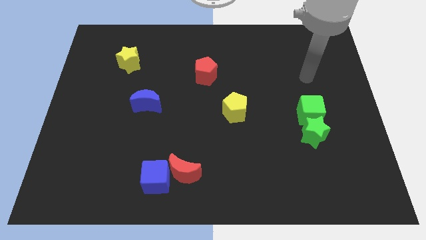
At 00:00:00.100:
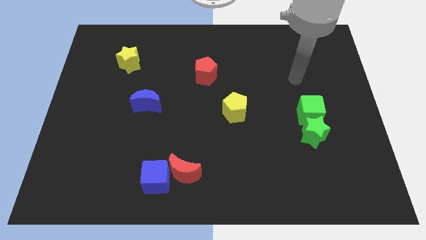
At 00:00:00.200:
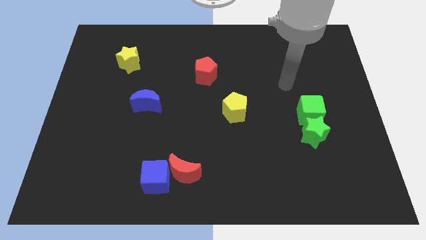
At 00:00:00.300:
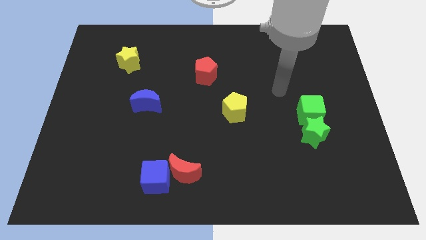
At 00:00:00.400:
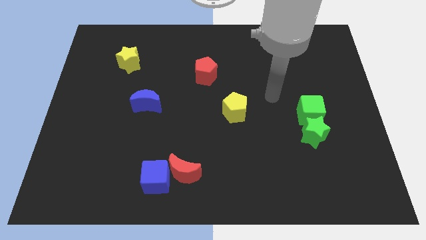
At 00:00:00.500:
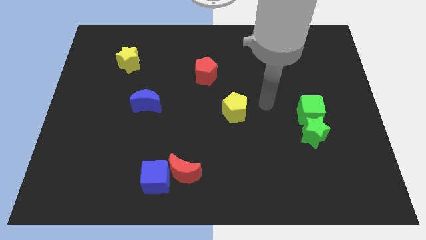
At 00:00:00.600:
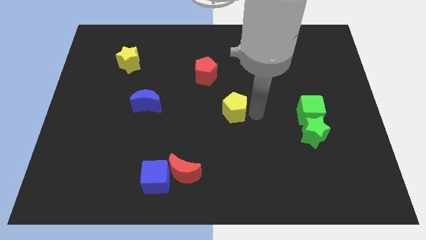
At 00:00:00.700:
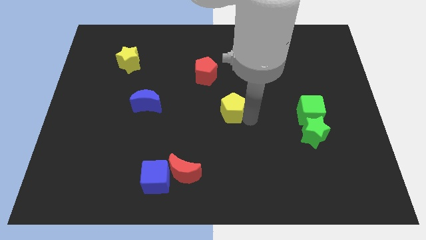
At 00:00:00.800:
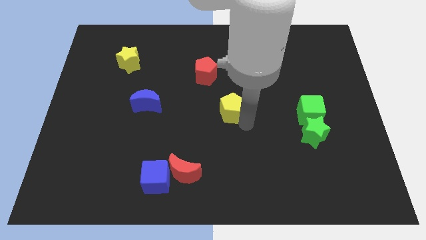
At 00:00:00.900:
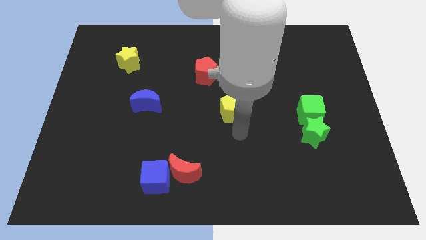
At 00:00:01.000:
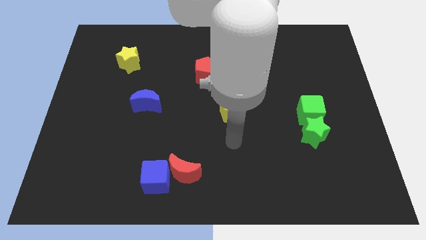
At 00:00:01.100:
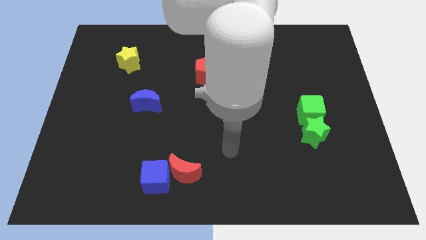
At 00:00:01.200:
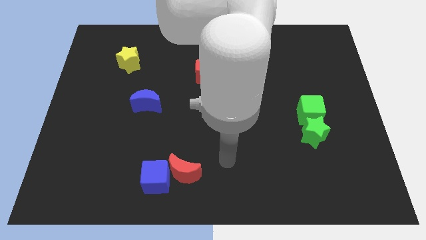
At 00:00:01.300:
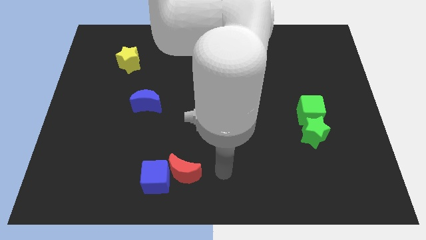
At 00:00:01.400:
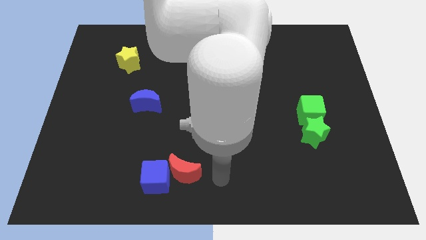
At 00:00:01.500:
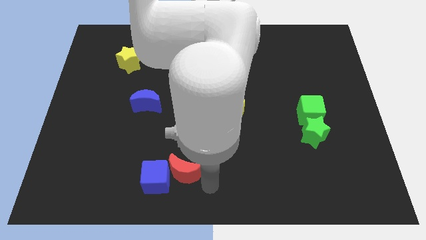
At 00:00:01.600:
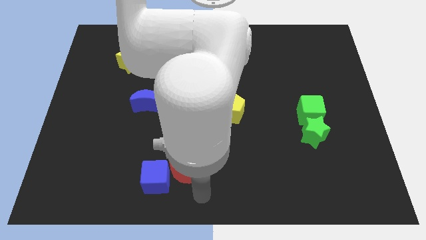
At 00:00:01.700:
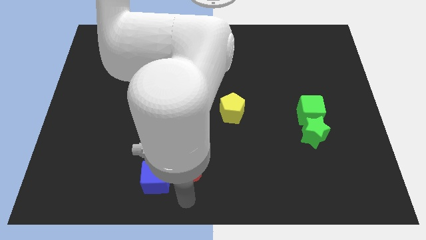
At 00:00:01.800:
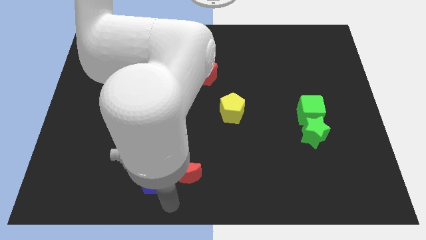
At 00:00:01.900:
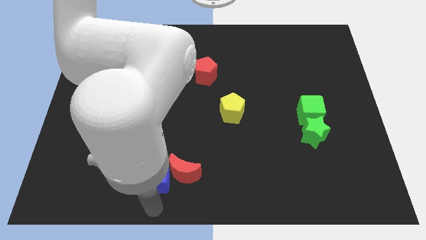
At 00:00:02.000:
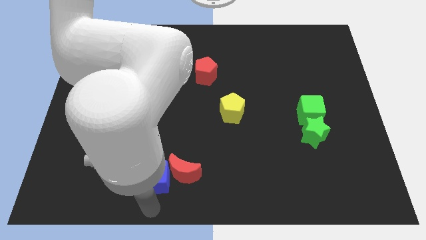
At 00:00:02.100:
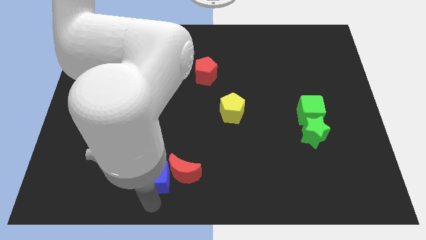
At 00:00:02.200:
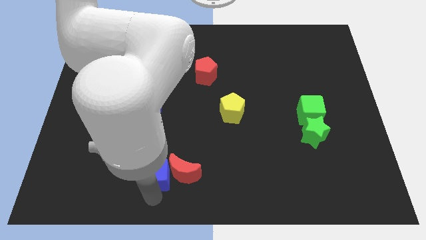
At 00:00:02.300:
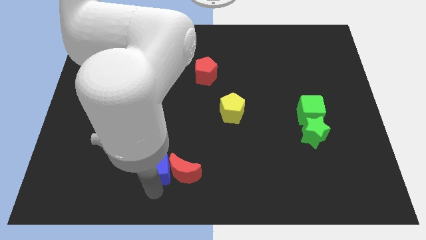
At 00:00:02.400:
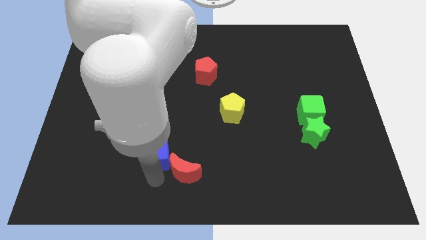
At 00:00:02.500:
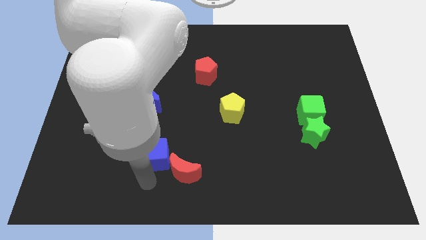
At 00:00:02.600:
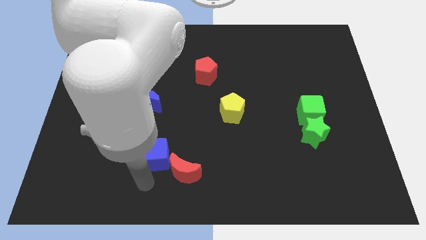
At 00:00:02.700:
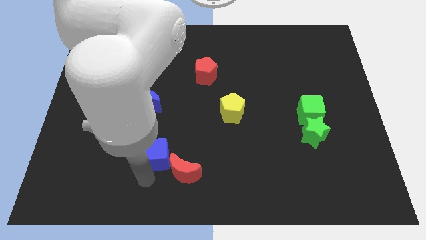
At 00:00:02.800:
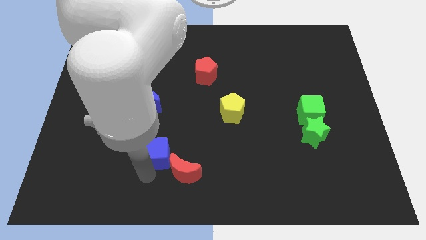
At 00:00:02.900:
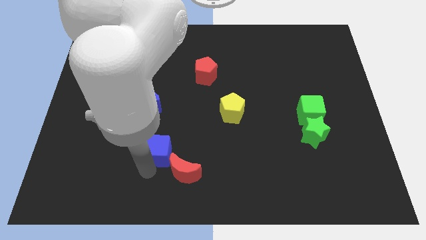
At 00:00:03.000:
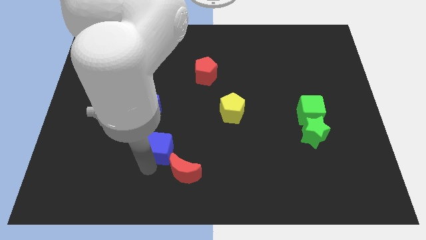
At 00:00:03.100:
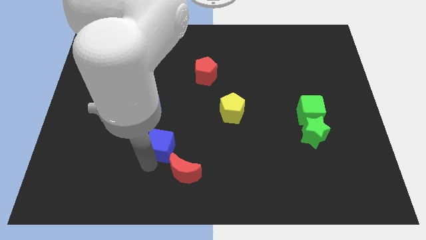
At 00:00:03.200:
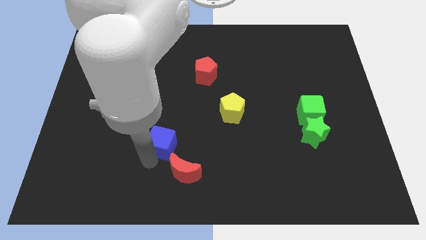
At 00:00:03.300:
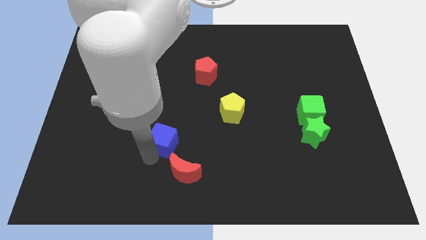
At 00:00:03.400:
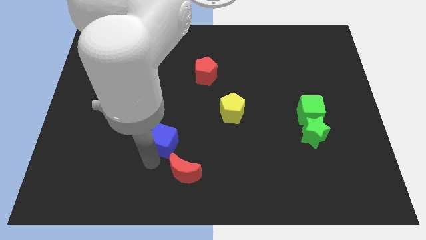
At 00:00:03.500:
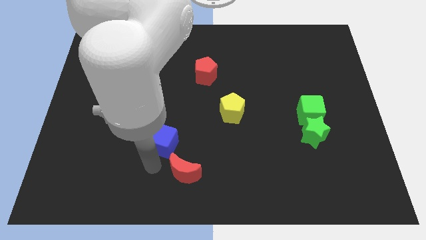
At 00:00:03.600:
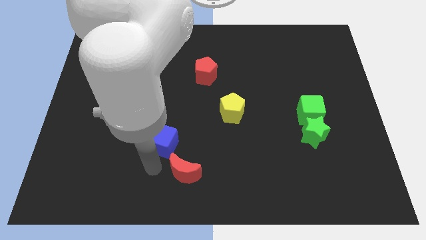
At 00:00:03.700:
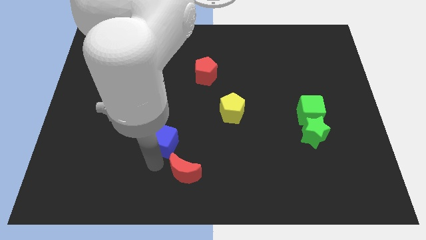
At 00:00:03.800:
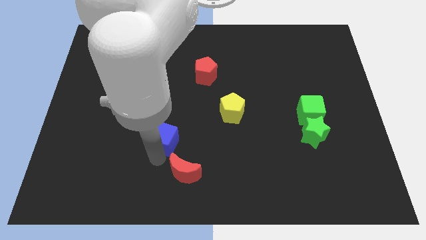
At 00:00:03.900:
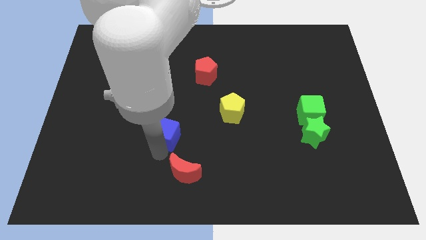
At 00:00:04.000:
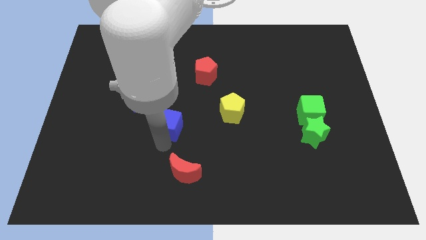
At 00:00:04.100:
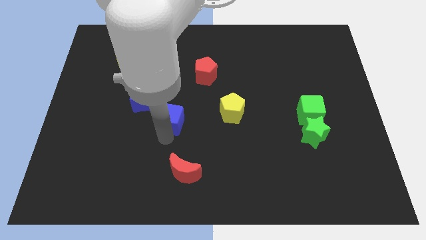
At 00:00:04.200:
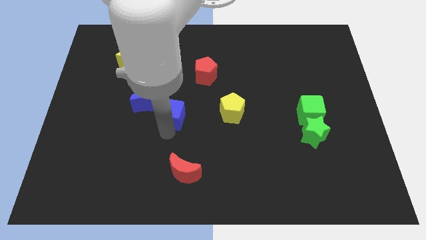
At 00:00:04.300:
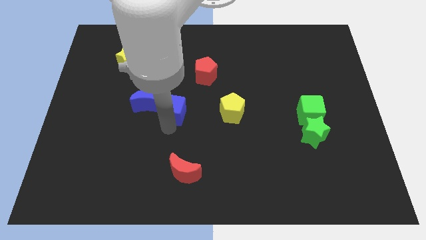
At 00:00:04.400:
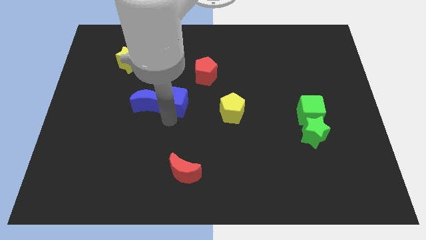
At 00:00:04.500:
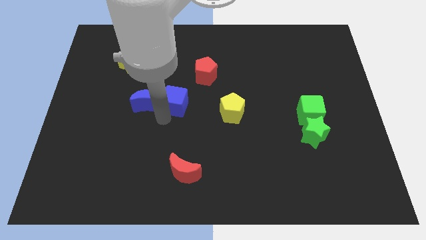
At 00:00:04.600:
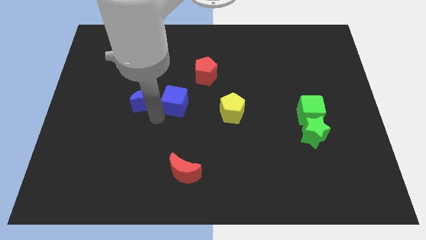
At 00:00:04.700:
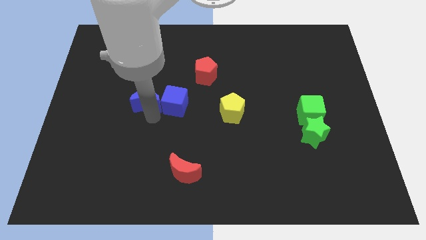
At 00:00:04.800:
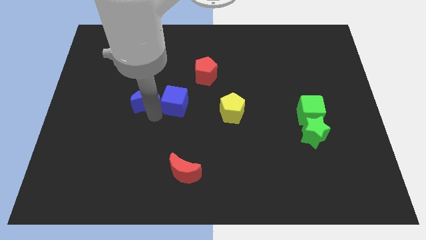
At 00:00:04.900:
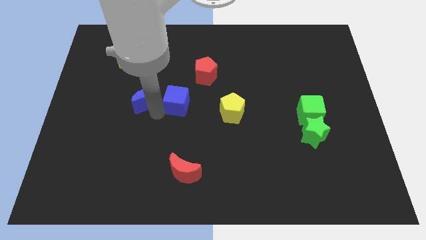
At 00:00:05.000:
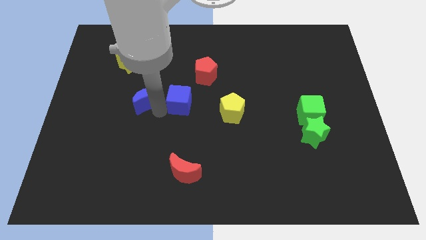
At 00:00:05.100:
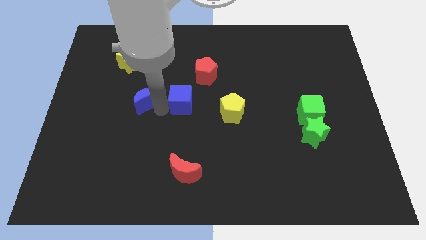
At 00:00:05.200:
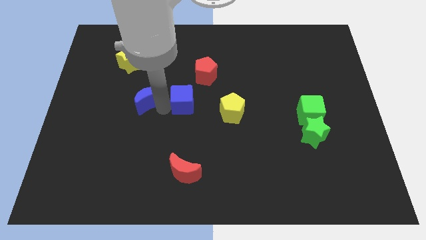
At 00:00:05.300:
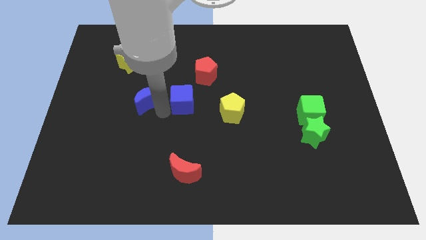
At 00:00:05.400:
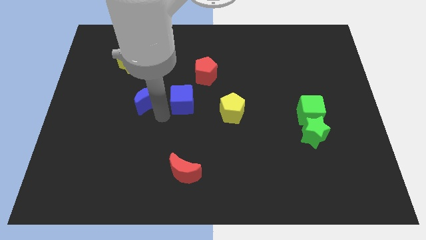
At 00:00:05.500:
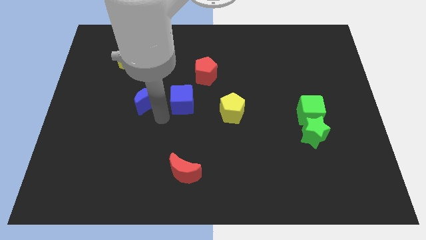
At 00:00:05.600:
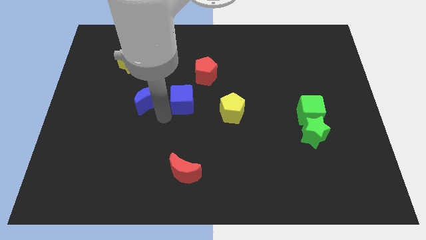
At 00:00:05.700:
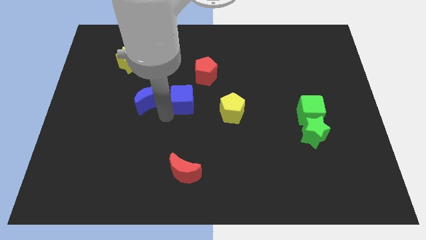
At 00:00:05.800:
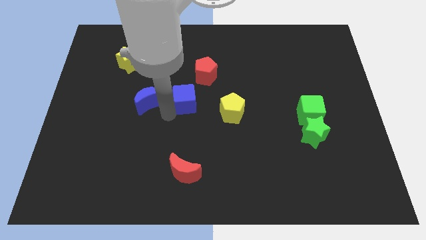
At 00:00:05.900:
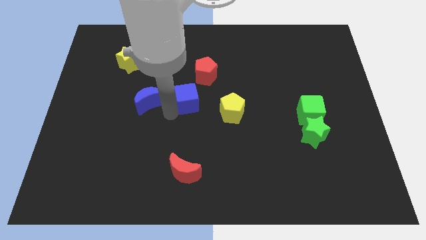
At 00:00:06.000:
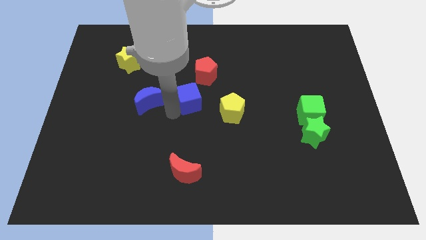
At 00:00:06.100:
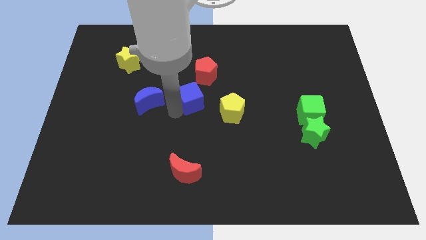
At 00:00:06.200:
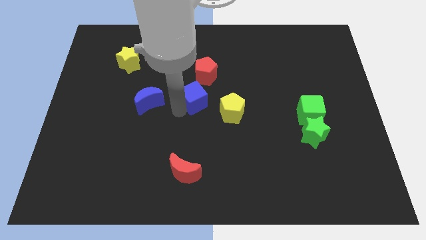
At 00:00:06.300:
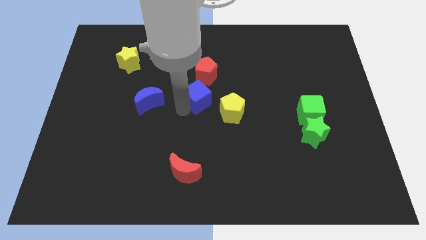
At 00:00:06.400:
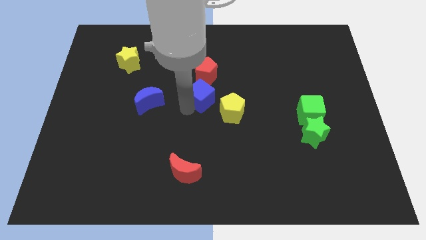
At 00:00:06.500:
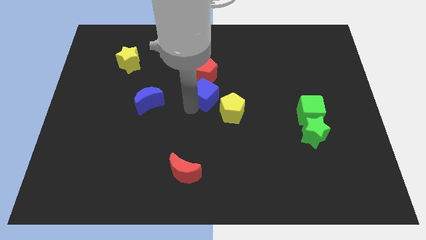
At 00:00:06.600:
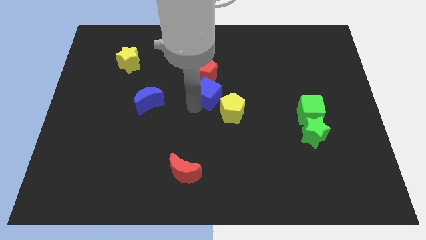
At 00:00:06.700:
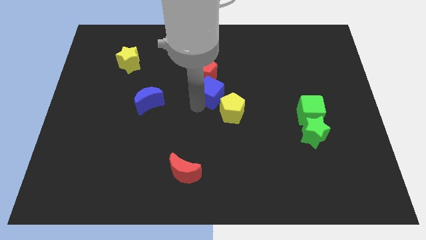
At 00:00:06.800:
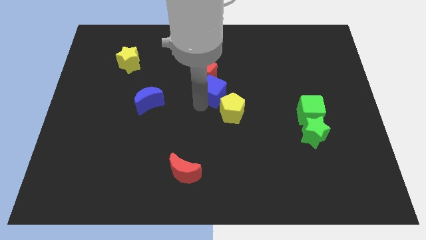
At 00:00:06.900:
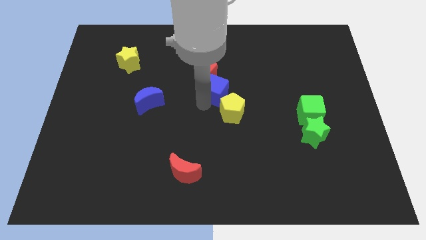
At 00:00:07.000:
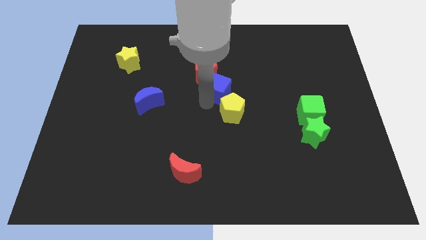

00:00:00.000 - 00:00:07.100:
move the blue cube next to the red pentagon

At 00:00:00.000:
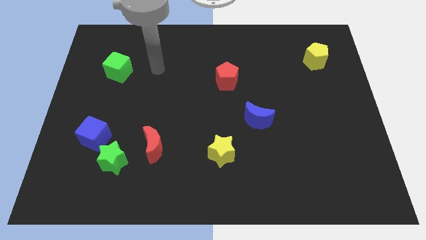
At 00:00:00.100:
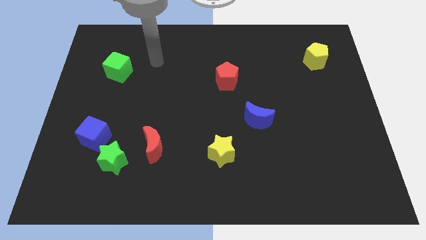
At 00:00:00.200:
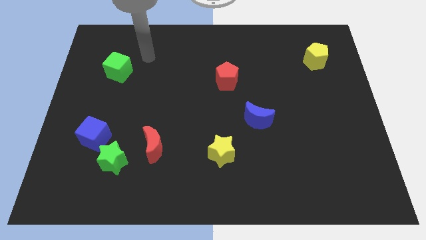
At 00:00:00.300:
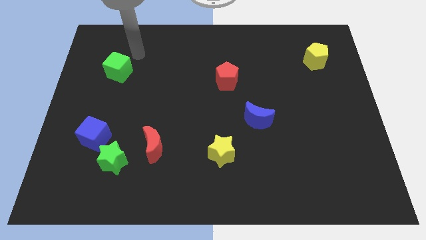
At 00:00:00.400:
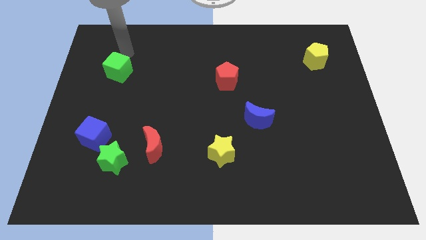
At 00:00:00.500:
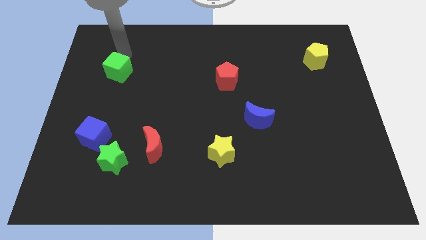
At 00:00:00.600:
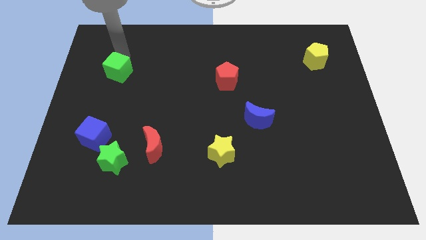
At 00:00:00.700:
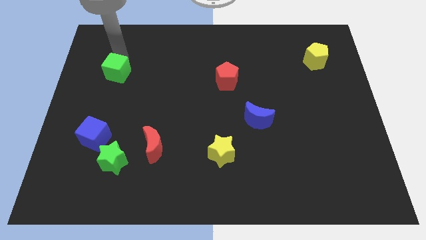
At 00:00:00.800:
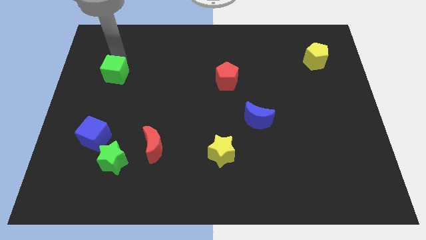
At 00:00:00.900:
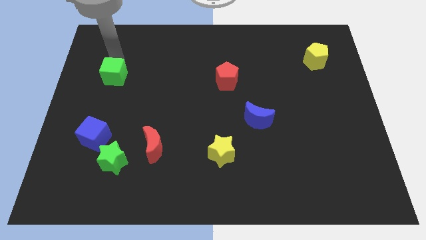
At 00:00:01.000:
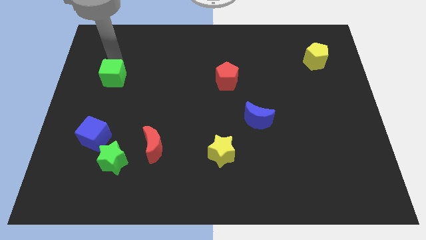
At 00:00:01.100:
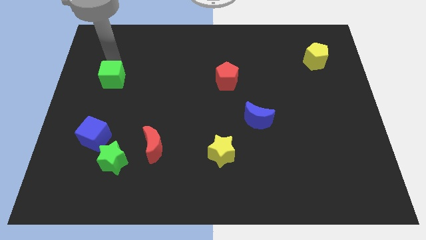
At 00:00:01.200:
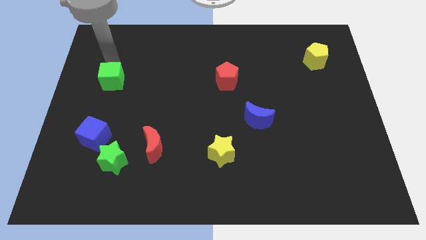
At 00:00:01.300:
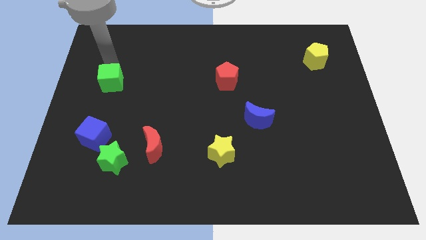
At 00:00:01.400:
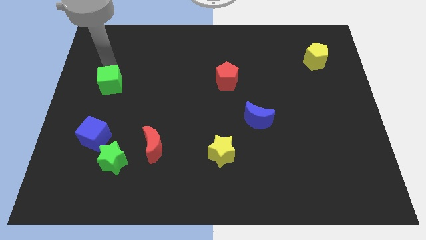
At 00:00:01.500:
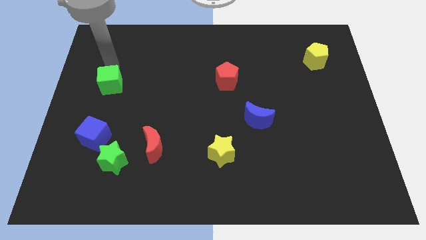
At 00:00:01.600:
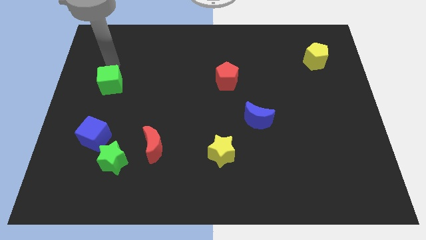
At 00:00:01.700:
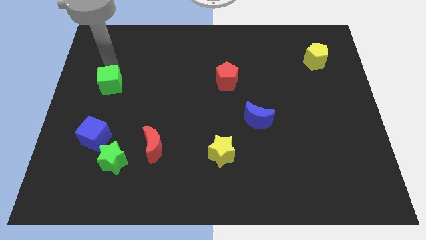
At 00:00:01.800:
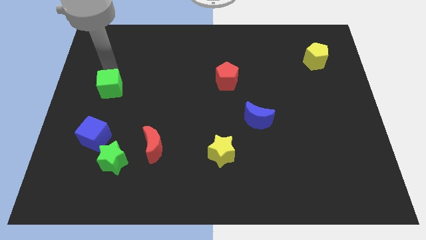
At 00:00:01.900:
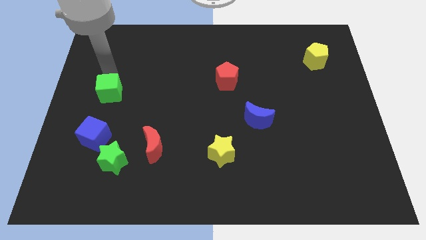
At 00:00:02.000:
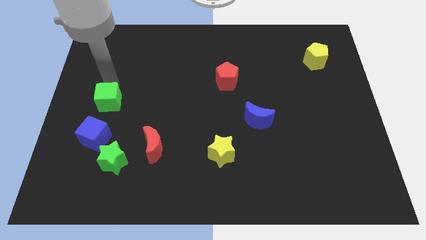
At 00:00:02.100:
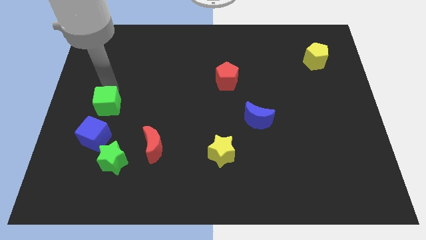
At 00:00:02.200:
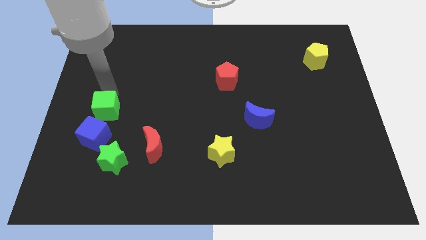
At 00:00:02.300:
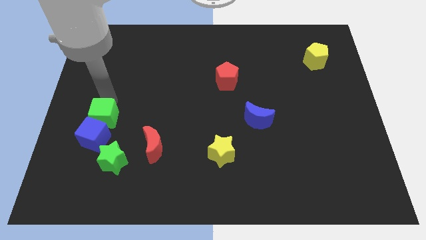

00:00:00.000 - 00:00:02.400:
move the green cube to the blue cube
